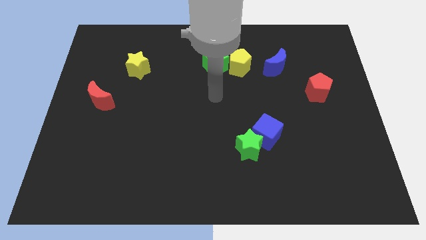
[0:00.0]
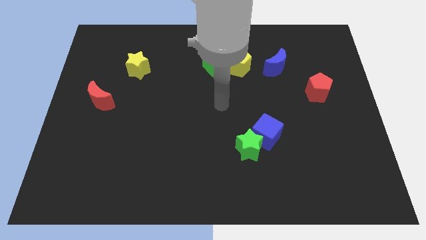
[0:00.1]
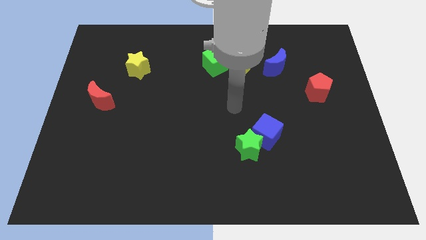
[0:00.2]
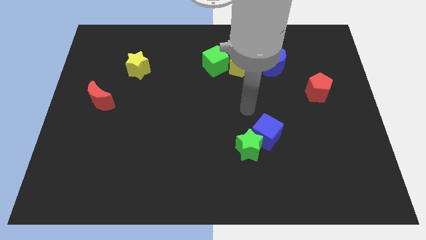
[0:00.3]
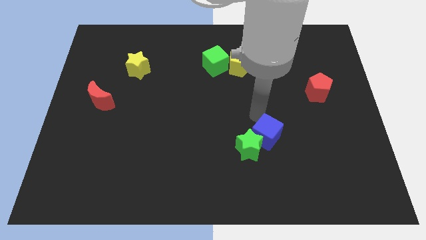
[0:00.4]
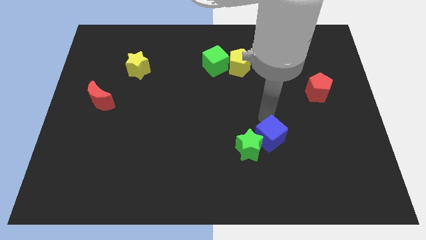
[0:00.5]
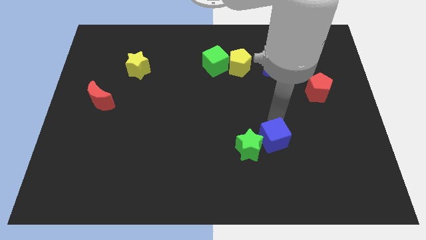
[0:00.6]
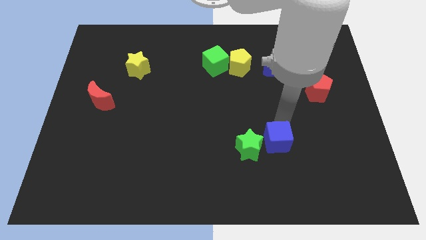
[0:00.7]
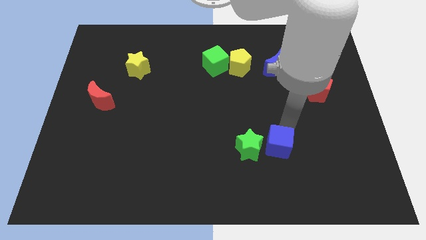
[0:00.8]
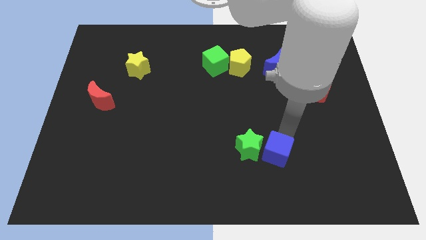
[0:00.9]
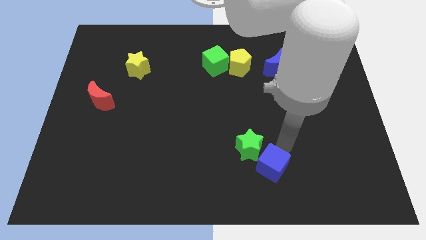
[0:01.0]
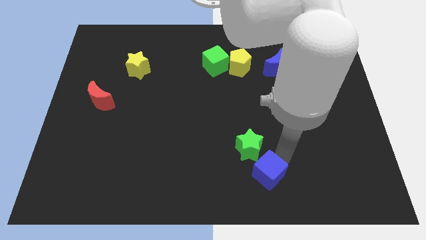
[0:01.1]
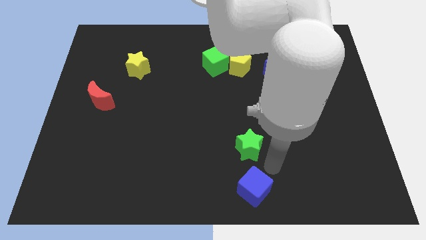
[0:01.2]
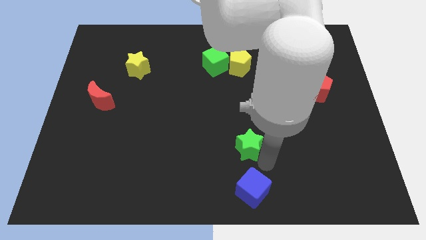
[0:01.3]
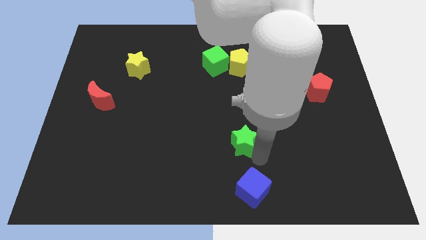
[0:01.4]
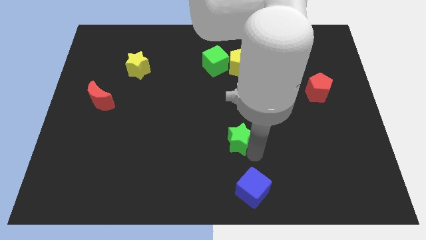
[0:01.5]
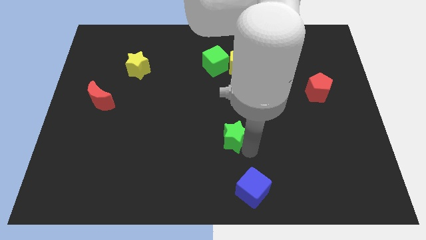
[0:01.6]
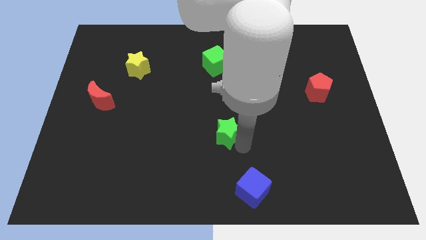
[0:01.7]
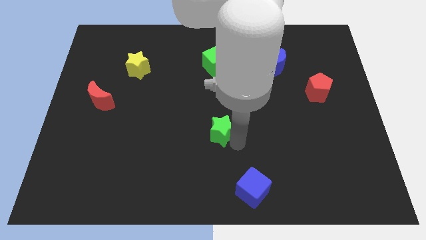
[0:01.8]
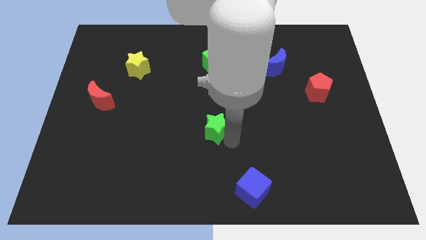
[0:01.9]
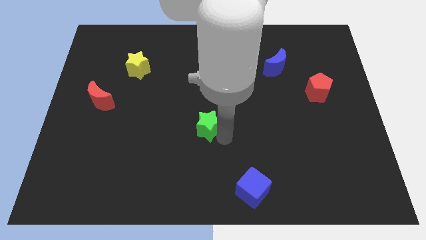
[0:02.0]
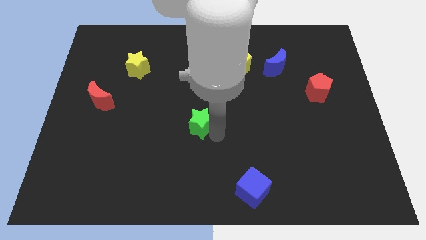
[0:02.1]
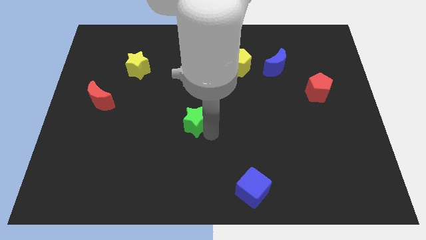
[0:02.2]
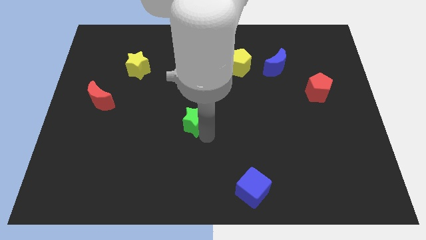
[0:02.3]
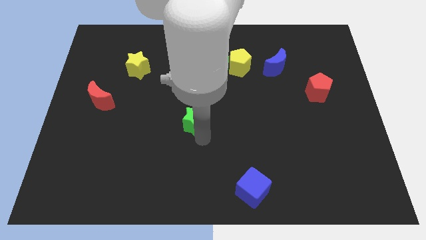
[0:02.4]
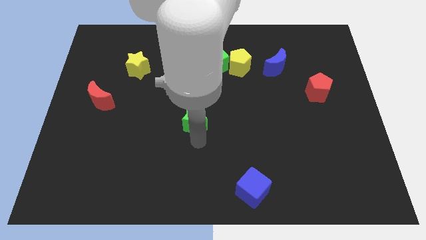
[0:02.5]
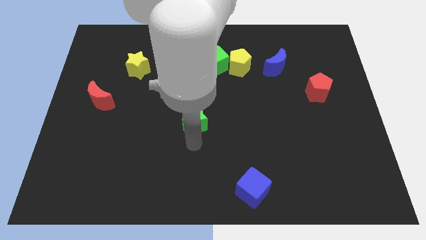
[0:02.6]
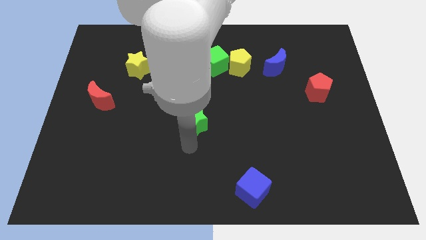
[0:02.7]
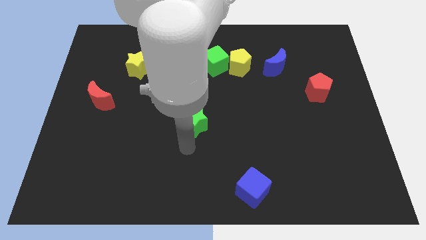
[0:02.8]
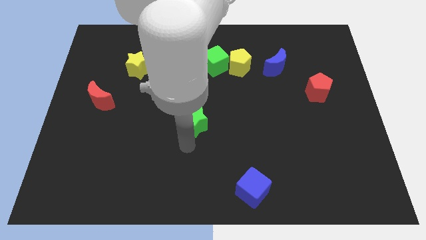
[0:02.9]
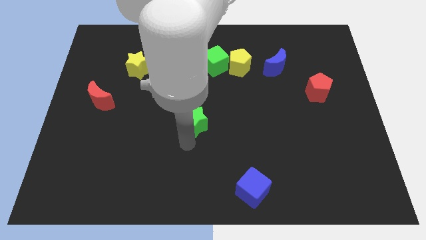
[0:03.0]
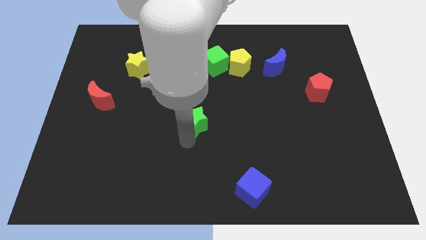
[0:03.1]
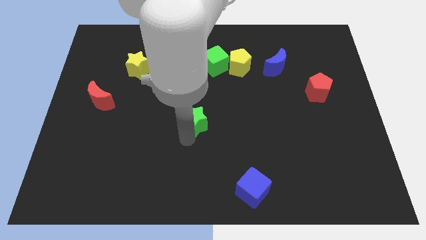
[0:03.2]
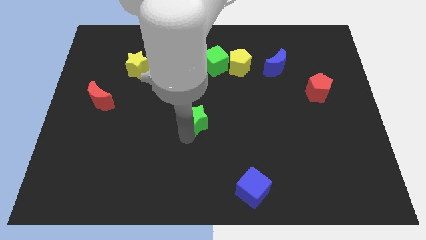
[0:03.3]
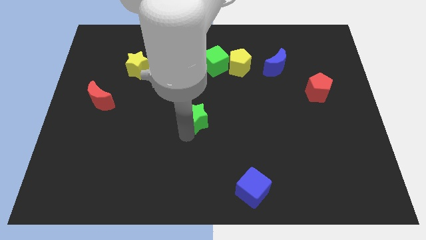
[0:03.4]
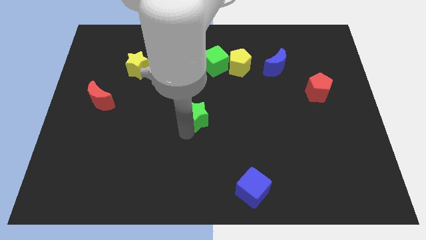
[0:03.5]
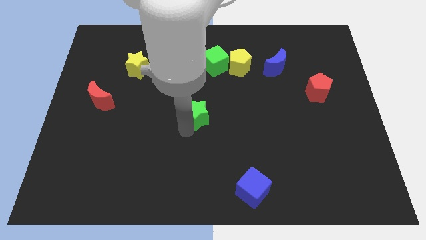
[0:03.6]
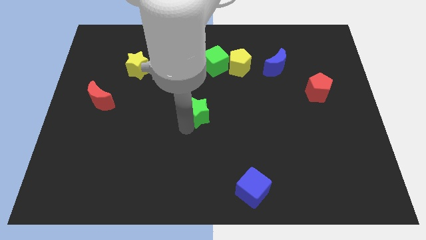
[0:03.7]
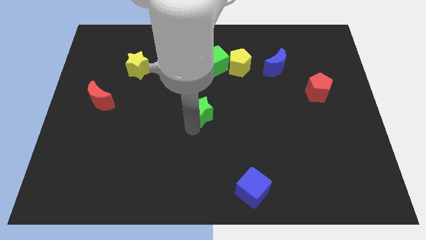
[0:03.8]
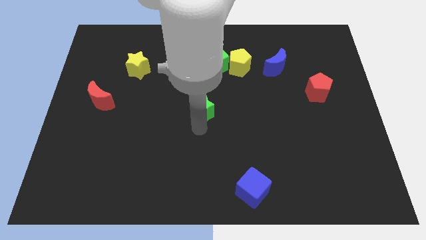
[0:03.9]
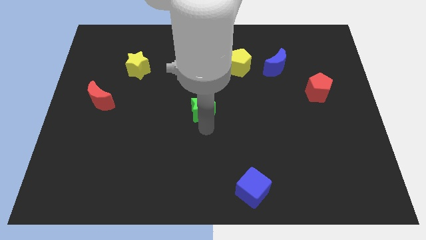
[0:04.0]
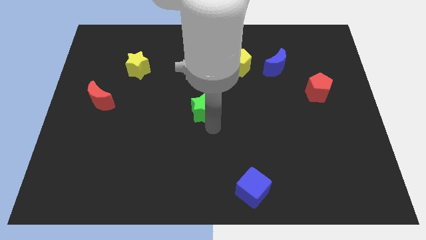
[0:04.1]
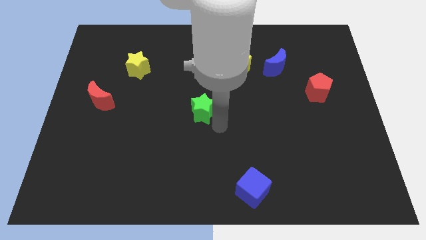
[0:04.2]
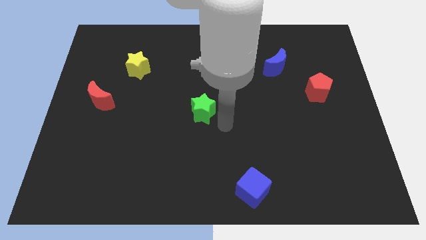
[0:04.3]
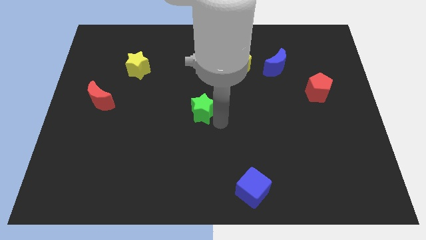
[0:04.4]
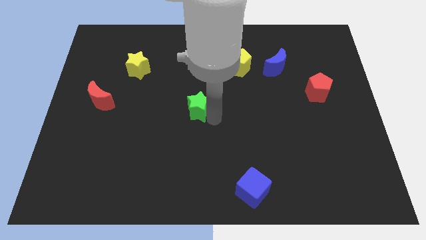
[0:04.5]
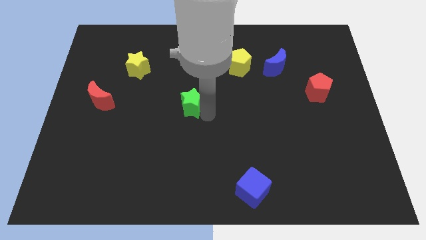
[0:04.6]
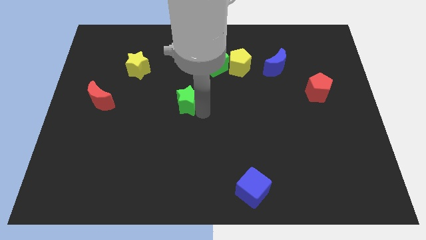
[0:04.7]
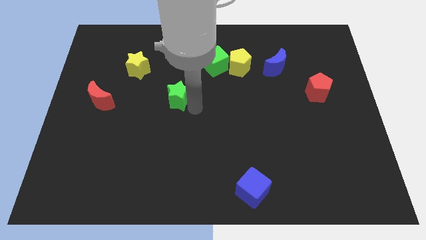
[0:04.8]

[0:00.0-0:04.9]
slide the green star diagonally up and to the left

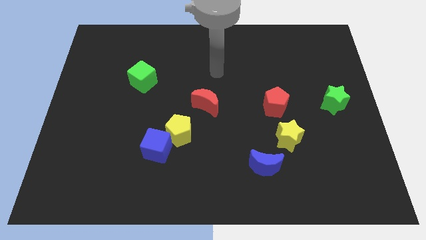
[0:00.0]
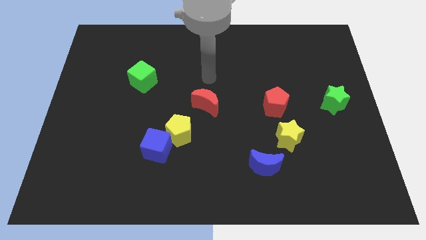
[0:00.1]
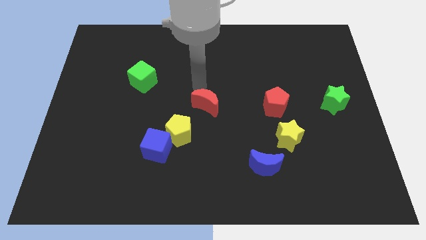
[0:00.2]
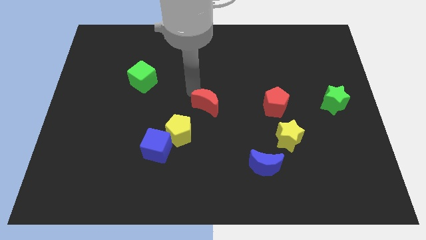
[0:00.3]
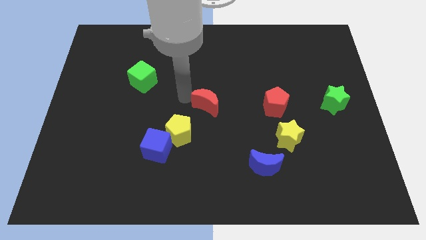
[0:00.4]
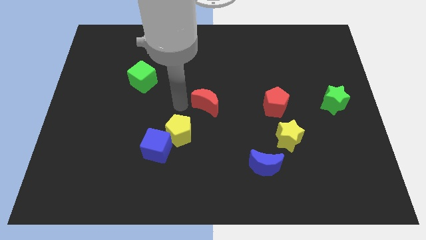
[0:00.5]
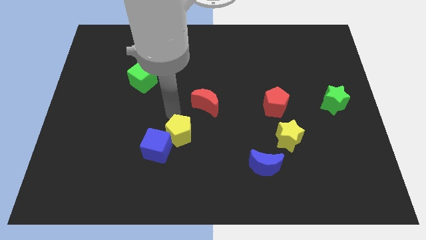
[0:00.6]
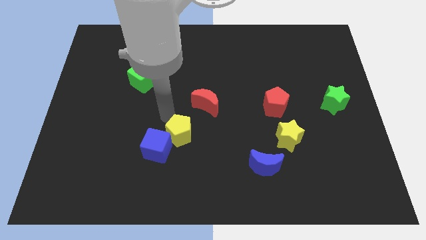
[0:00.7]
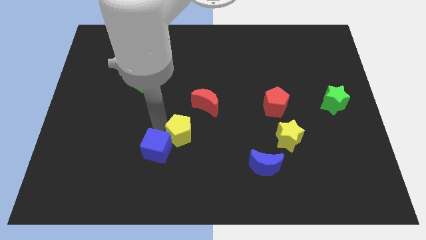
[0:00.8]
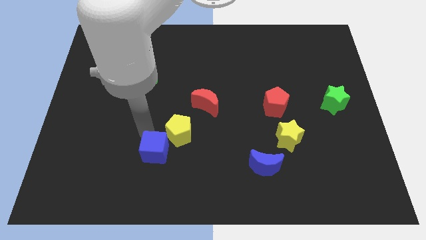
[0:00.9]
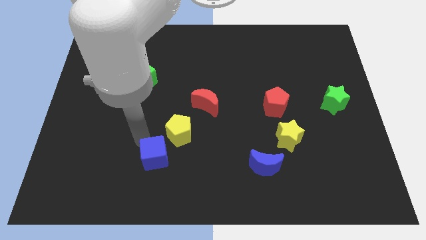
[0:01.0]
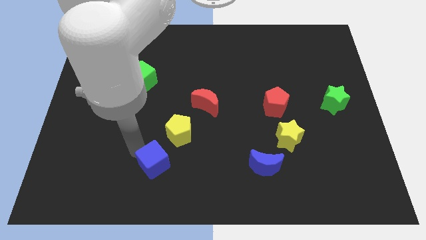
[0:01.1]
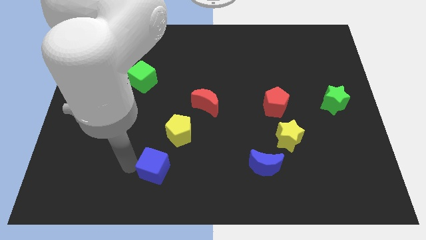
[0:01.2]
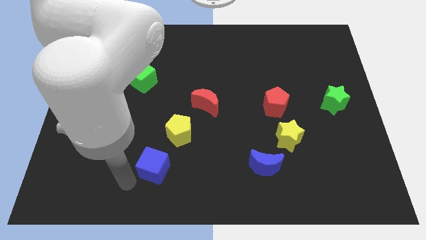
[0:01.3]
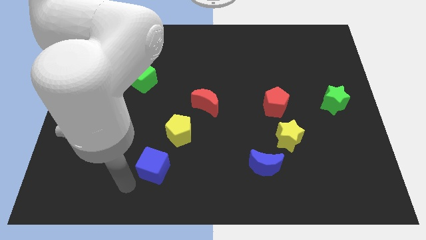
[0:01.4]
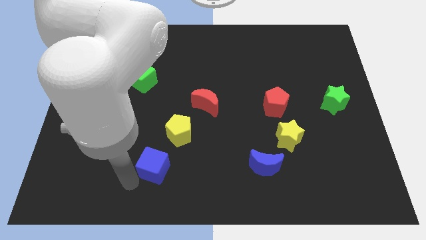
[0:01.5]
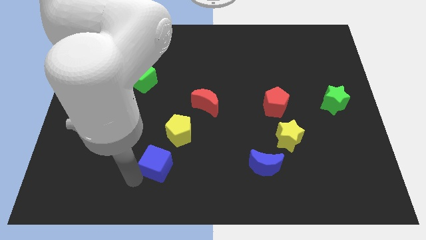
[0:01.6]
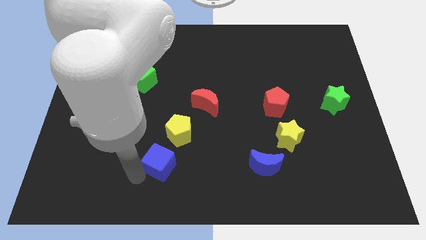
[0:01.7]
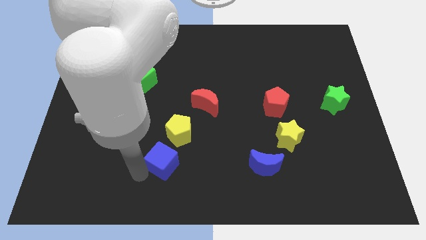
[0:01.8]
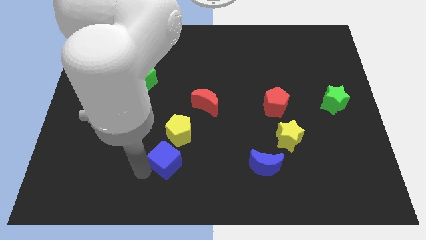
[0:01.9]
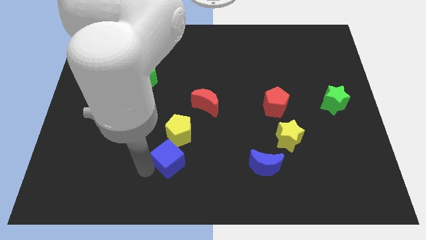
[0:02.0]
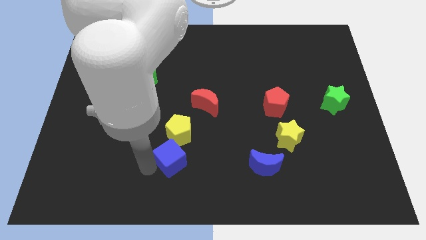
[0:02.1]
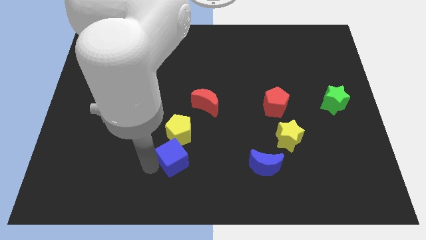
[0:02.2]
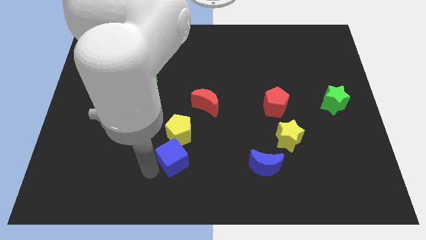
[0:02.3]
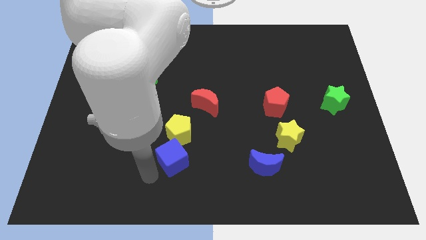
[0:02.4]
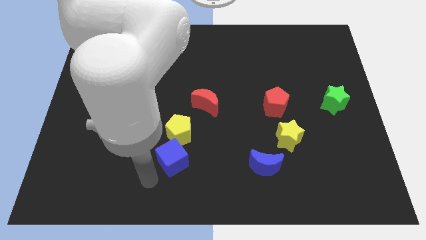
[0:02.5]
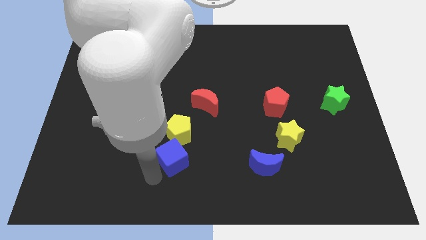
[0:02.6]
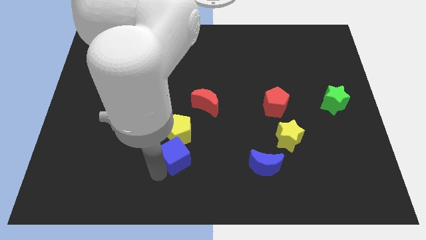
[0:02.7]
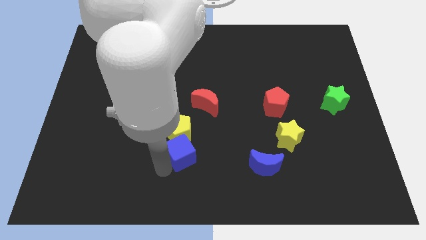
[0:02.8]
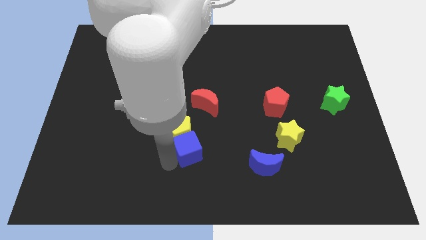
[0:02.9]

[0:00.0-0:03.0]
slightly move the blue cube right

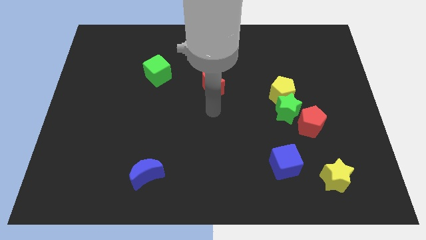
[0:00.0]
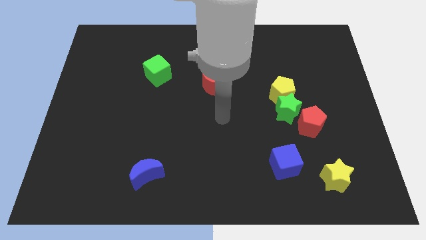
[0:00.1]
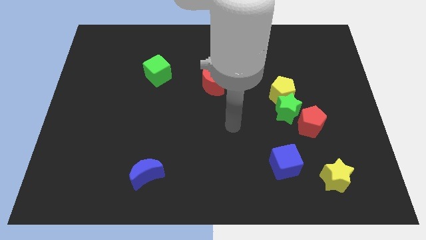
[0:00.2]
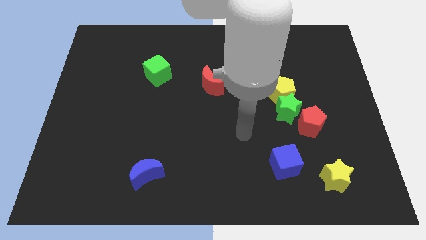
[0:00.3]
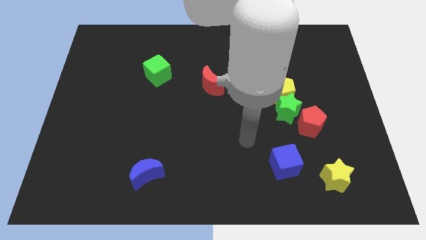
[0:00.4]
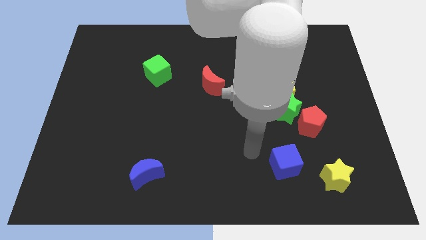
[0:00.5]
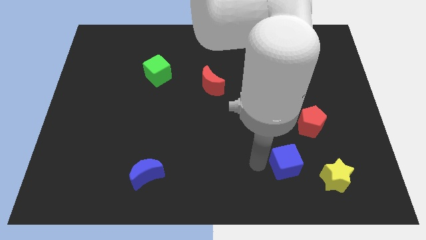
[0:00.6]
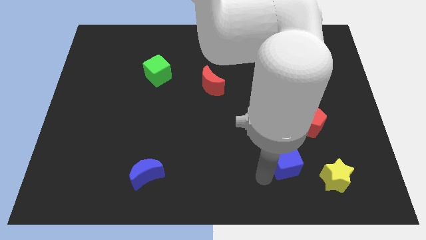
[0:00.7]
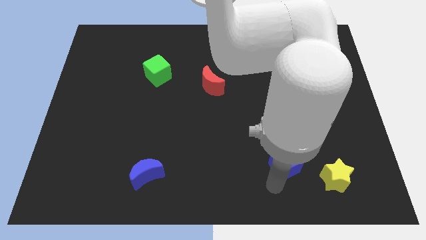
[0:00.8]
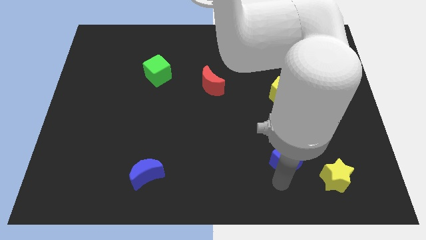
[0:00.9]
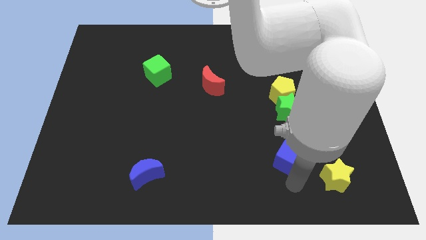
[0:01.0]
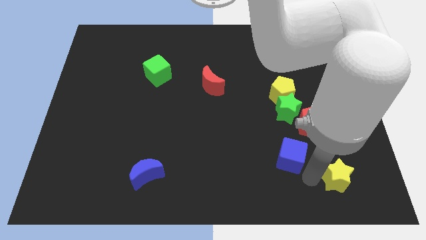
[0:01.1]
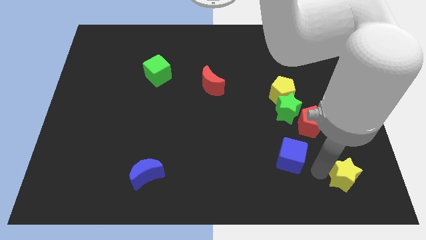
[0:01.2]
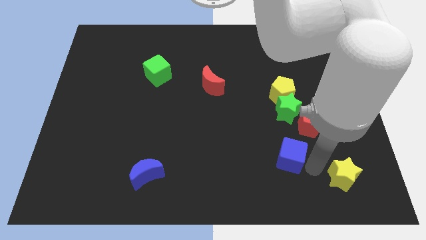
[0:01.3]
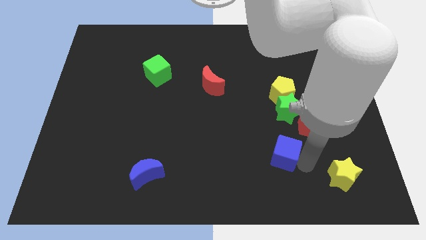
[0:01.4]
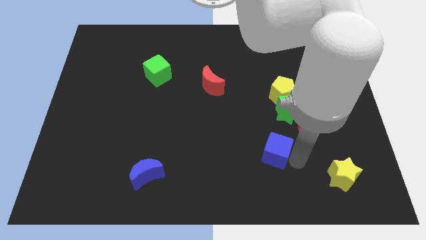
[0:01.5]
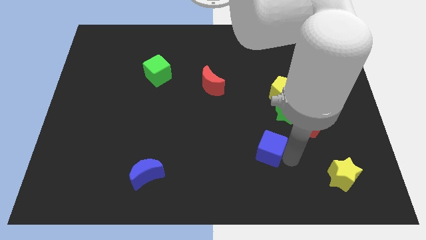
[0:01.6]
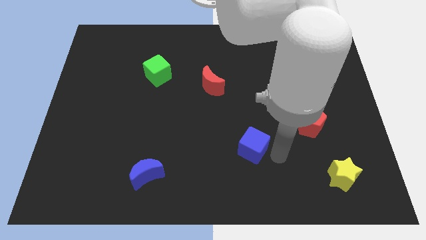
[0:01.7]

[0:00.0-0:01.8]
move the blue cube up and then to the left a little
